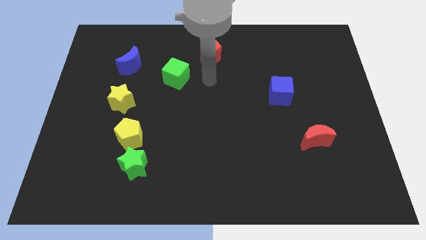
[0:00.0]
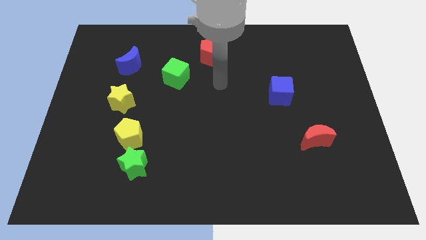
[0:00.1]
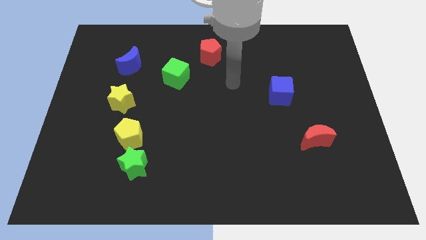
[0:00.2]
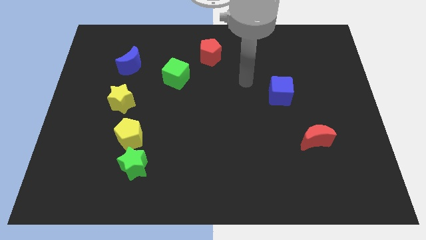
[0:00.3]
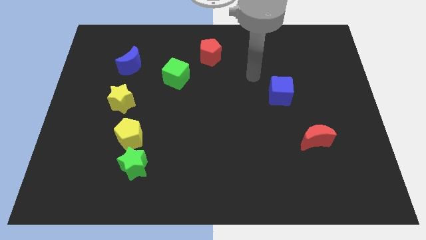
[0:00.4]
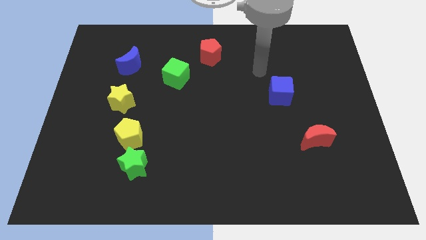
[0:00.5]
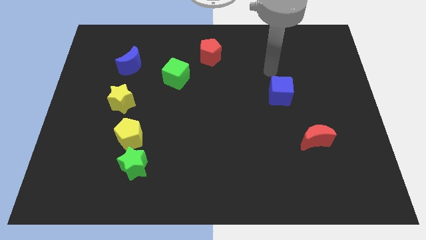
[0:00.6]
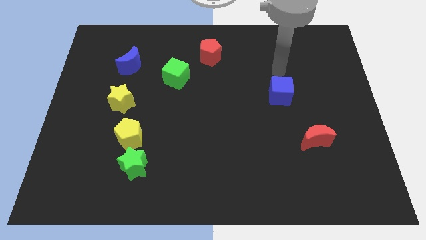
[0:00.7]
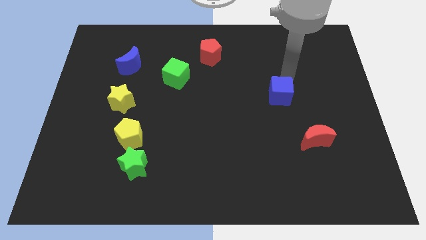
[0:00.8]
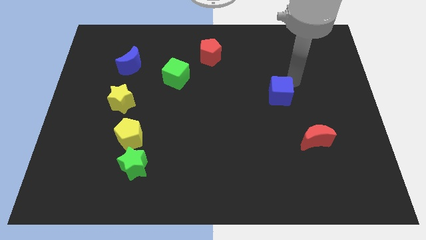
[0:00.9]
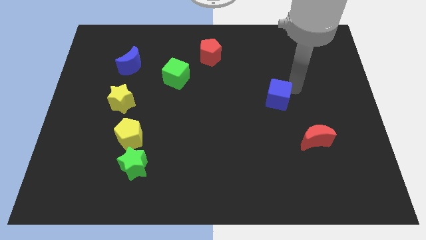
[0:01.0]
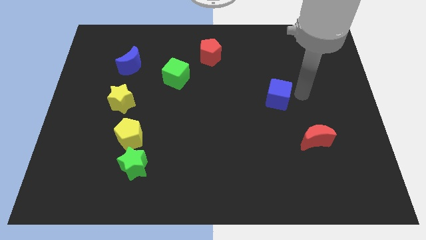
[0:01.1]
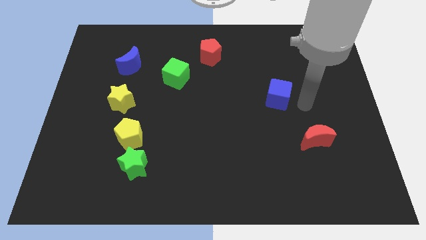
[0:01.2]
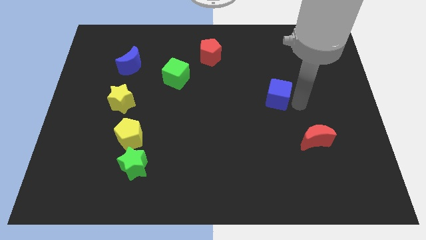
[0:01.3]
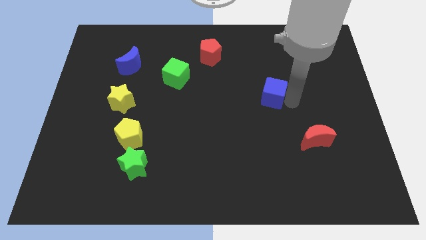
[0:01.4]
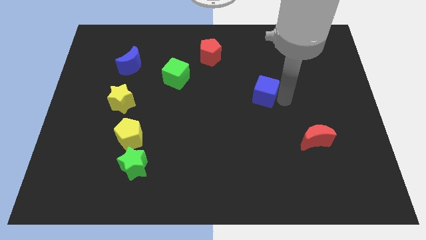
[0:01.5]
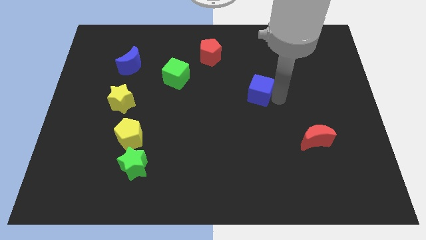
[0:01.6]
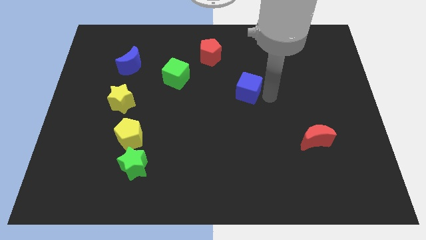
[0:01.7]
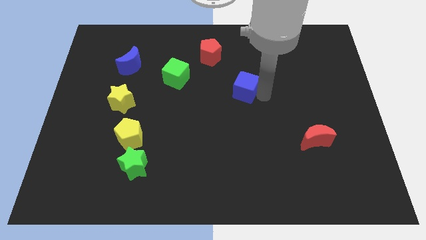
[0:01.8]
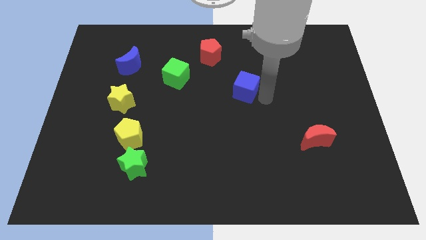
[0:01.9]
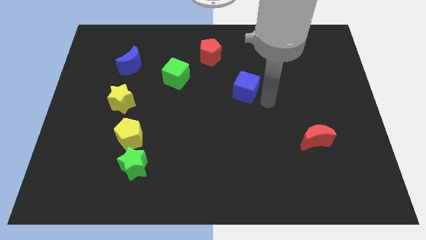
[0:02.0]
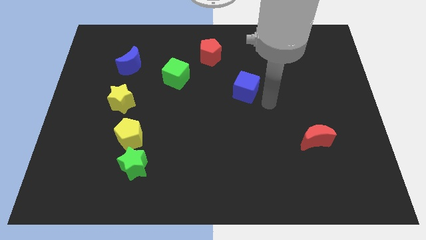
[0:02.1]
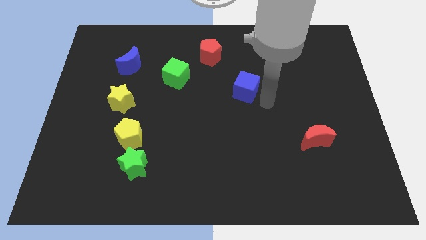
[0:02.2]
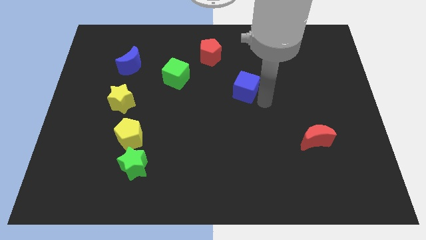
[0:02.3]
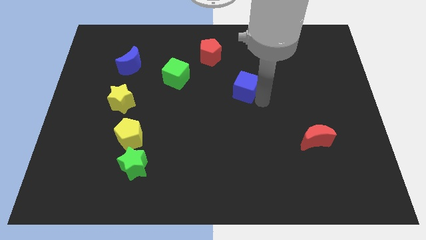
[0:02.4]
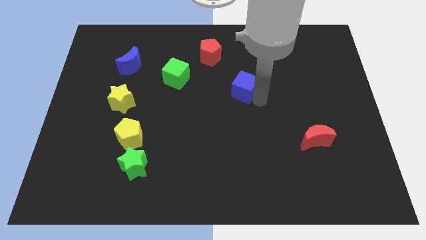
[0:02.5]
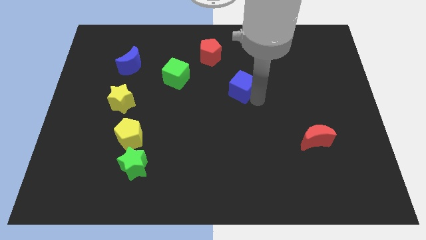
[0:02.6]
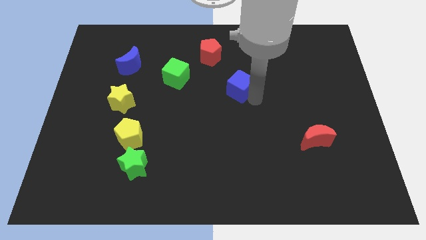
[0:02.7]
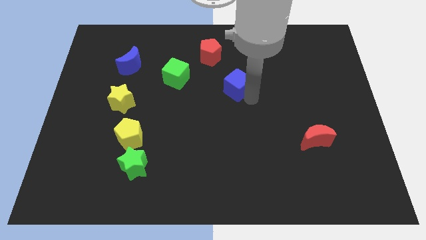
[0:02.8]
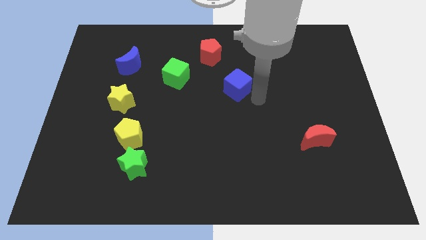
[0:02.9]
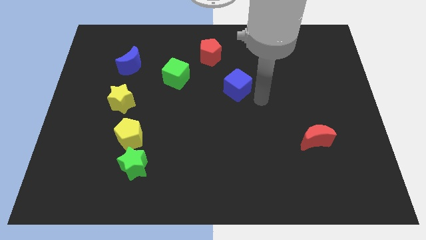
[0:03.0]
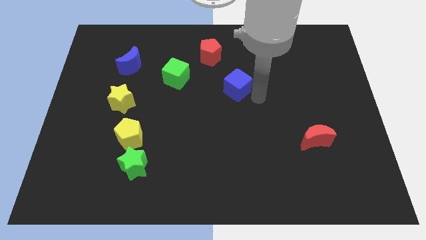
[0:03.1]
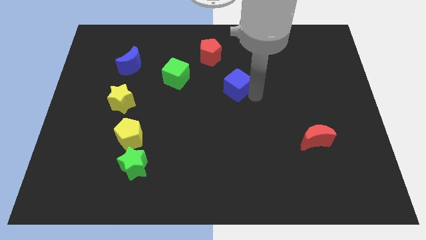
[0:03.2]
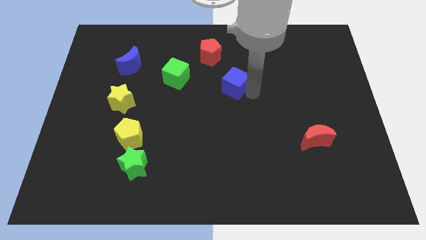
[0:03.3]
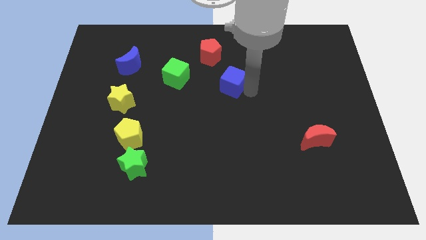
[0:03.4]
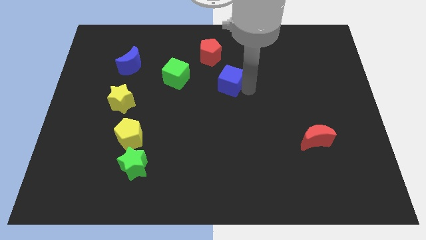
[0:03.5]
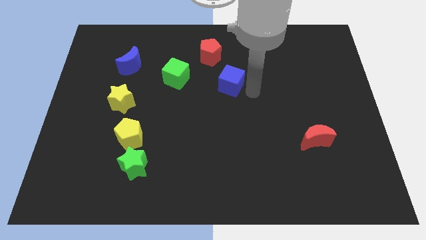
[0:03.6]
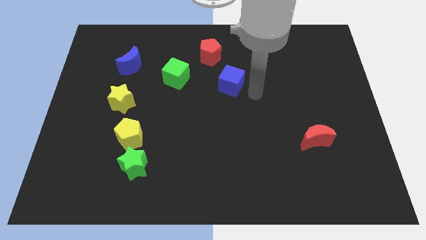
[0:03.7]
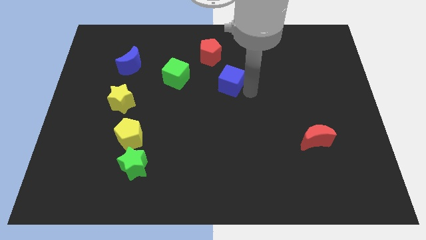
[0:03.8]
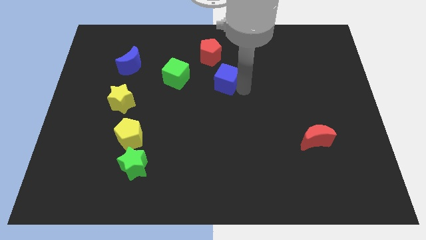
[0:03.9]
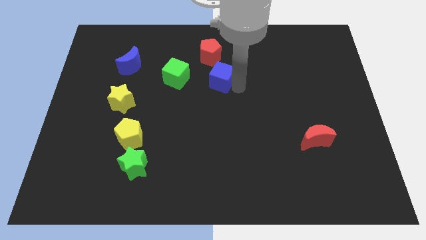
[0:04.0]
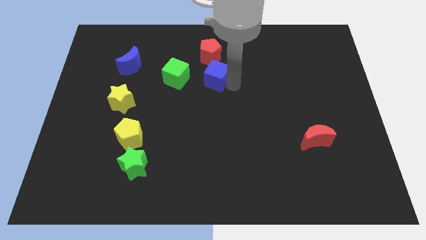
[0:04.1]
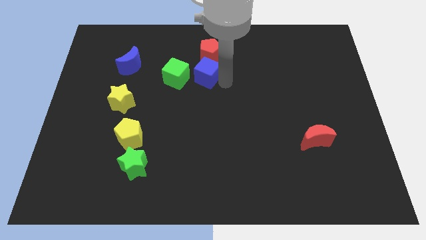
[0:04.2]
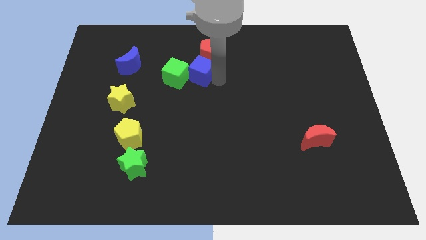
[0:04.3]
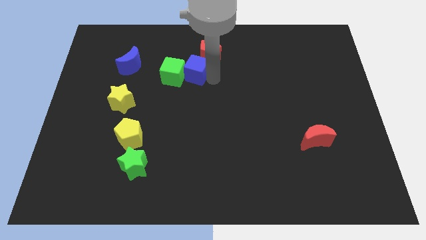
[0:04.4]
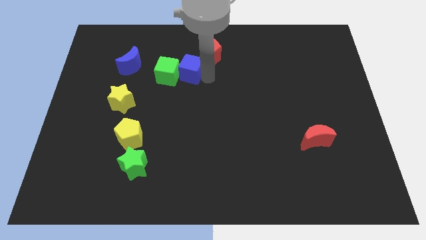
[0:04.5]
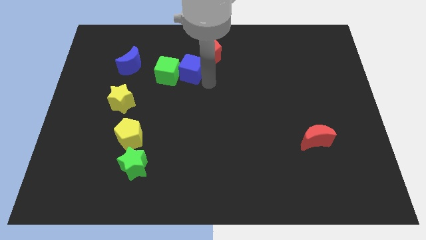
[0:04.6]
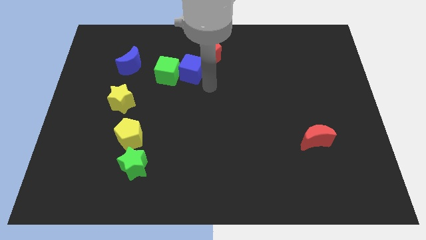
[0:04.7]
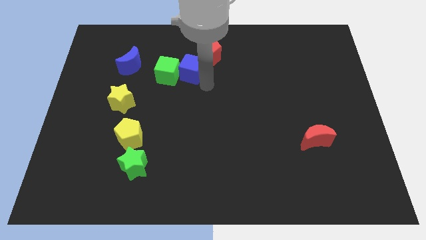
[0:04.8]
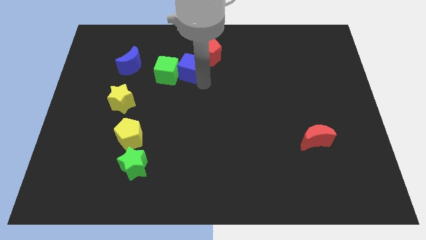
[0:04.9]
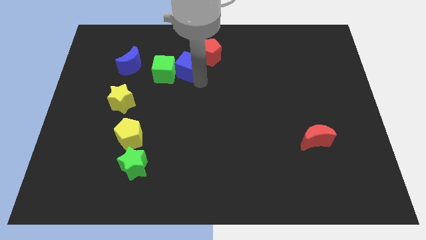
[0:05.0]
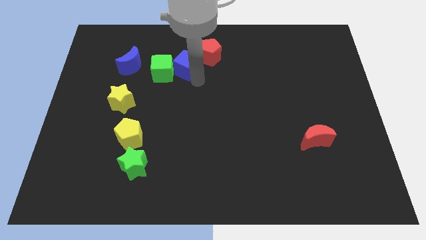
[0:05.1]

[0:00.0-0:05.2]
push the blue cube to the left of the red pentagon
